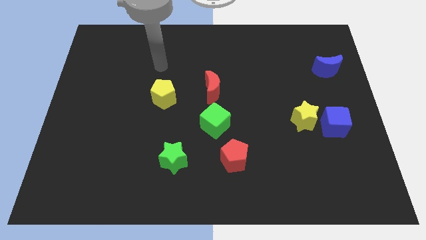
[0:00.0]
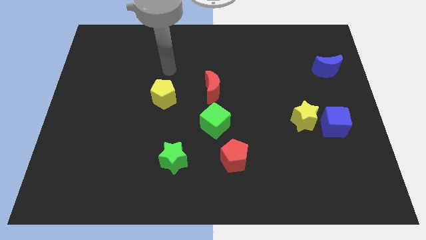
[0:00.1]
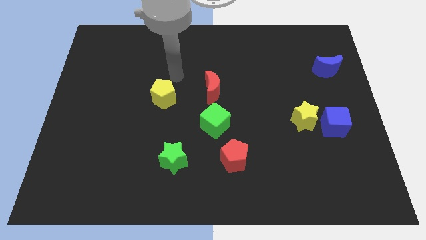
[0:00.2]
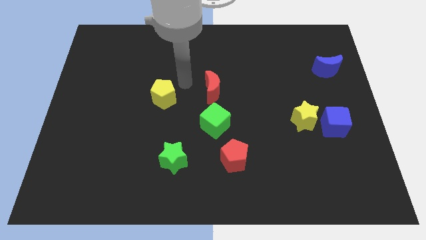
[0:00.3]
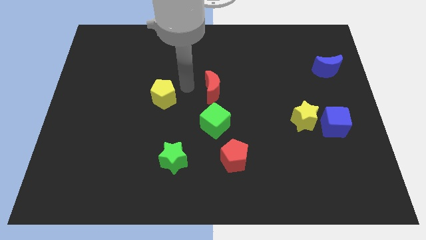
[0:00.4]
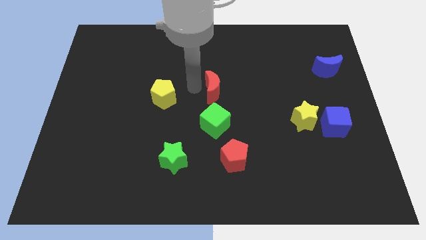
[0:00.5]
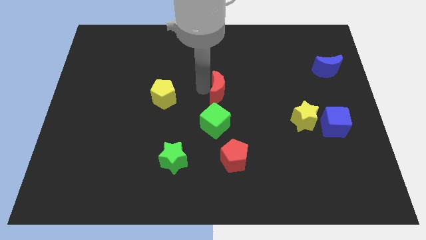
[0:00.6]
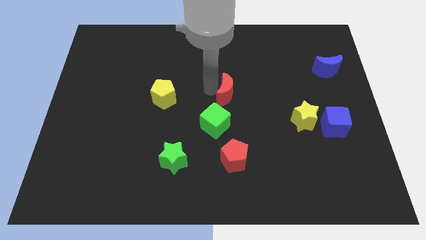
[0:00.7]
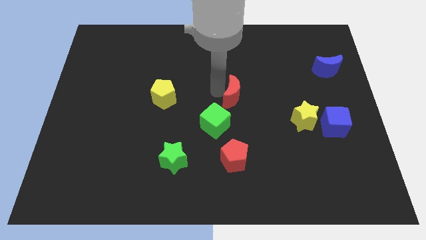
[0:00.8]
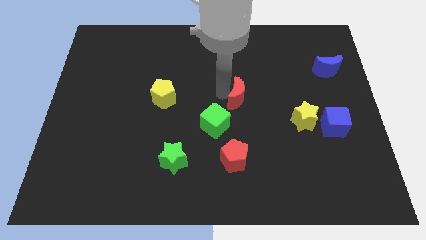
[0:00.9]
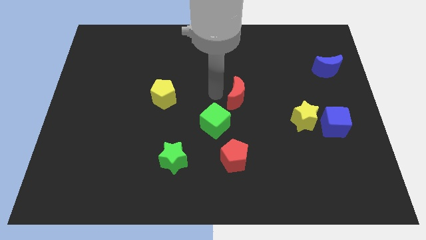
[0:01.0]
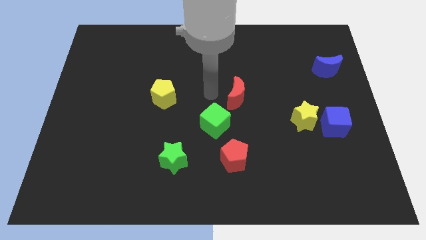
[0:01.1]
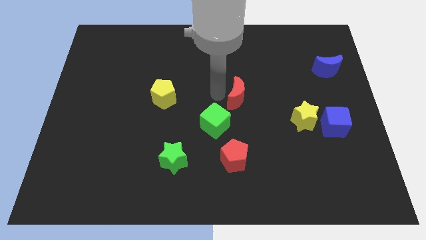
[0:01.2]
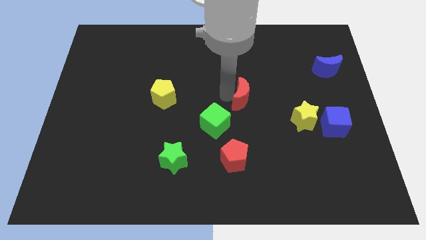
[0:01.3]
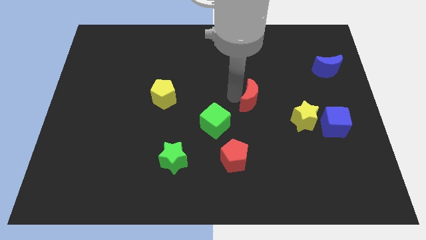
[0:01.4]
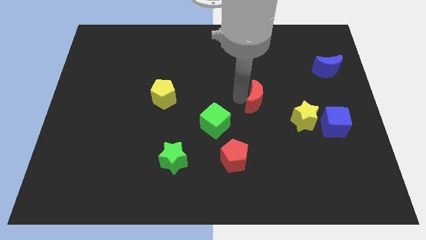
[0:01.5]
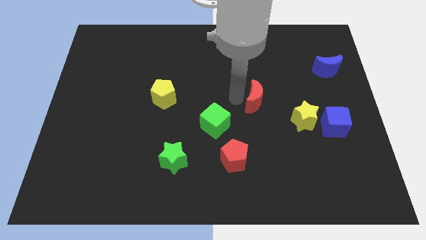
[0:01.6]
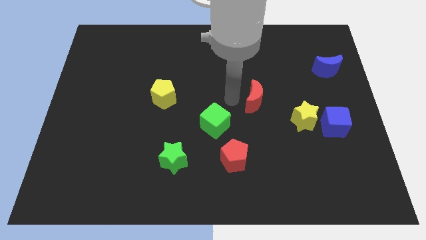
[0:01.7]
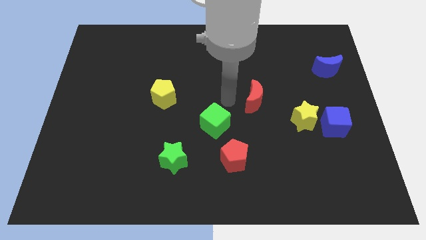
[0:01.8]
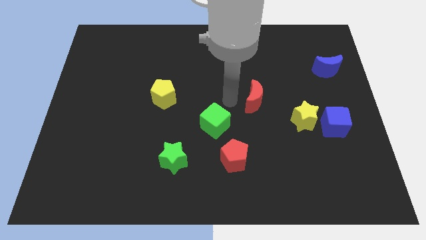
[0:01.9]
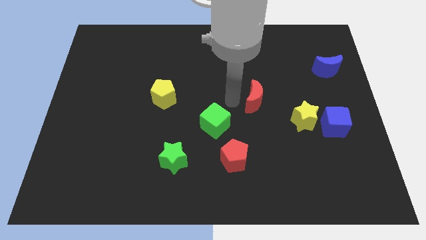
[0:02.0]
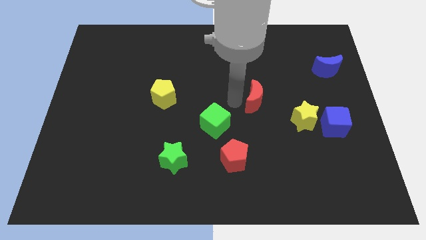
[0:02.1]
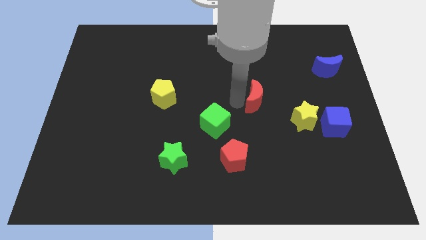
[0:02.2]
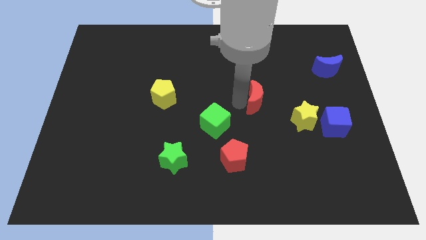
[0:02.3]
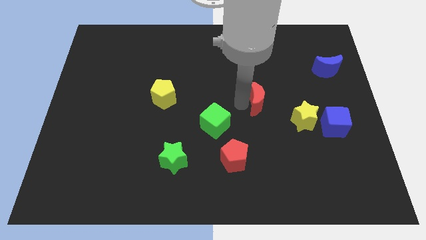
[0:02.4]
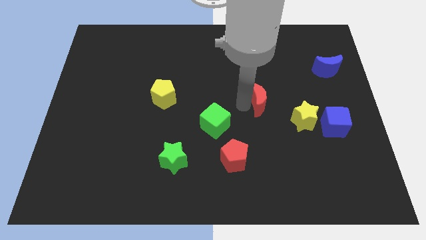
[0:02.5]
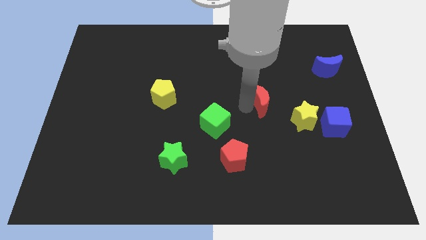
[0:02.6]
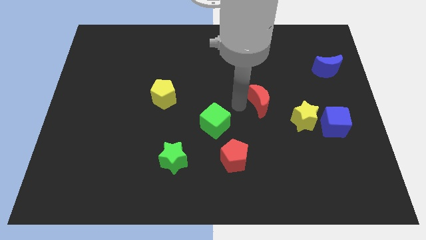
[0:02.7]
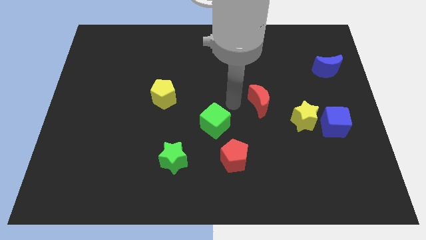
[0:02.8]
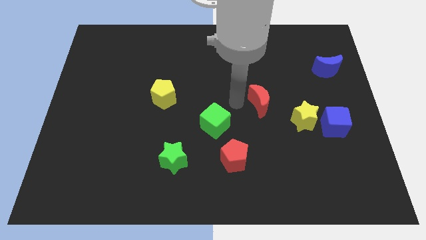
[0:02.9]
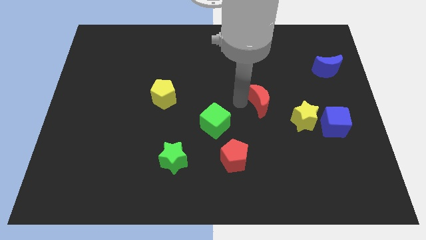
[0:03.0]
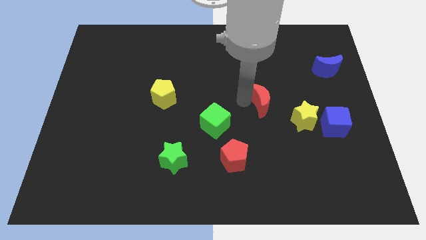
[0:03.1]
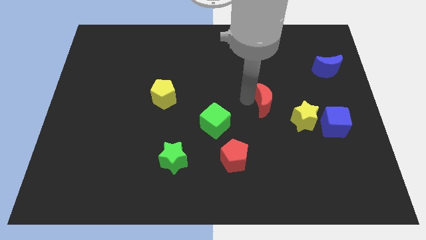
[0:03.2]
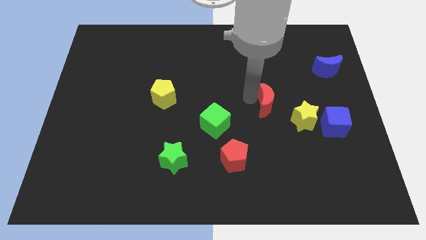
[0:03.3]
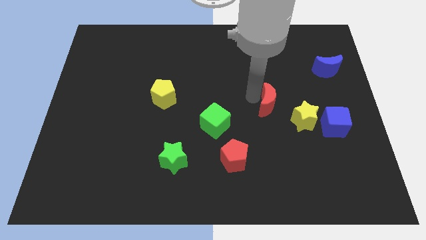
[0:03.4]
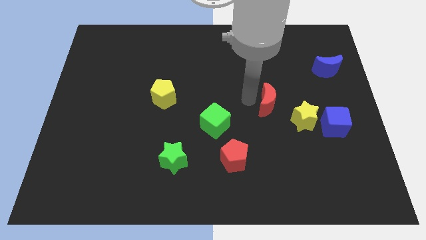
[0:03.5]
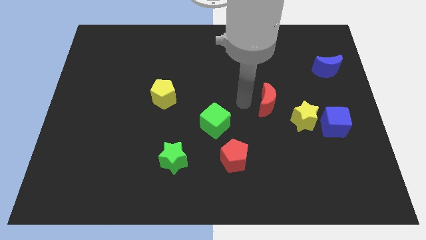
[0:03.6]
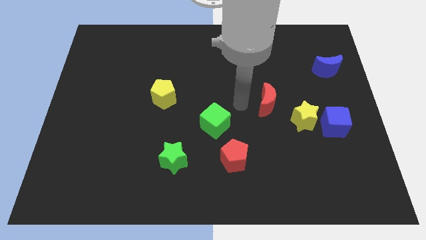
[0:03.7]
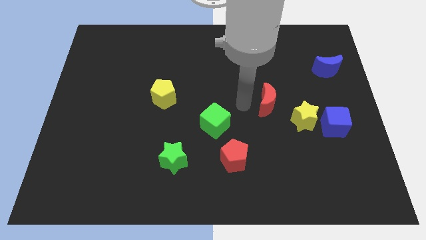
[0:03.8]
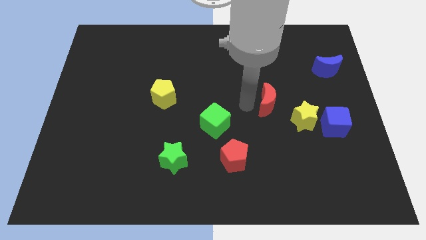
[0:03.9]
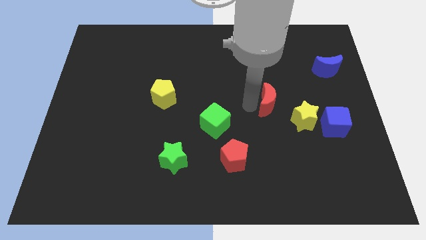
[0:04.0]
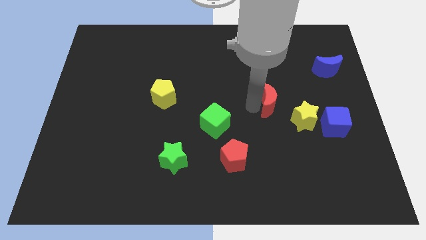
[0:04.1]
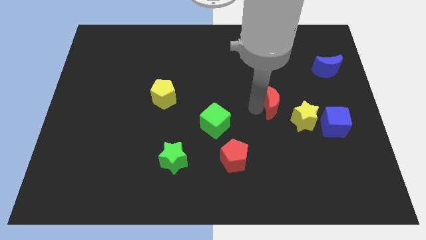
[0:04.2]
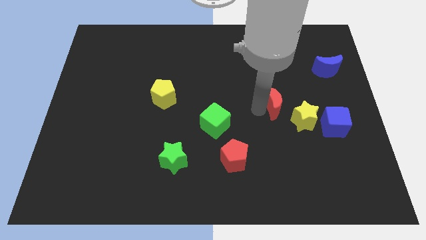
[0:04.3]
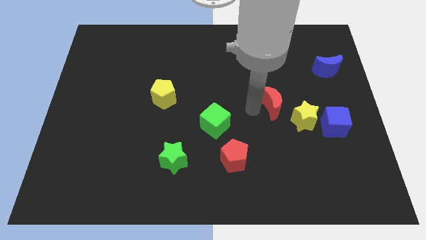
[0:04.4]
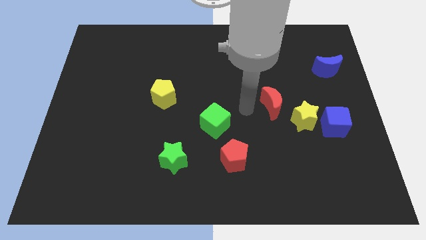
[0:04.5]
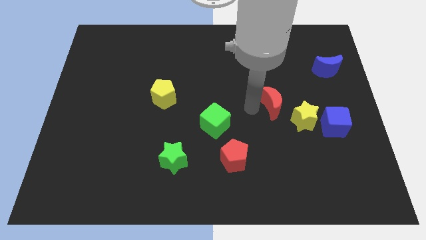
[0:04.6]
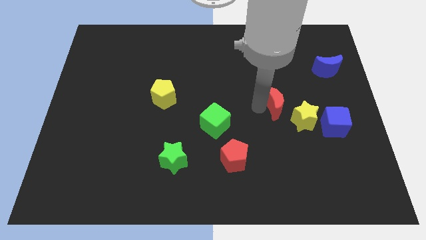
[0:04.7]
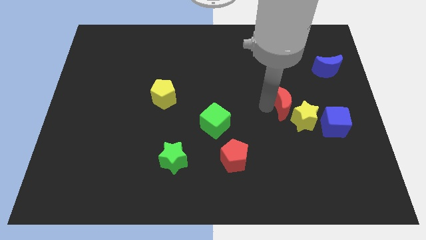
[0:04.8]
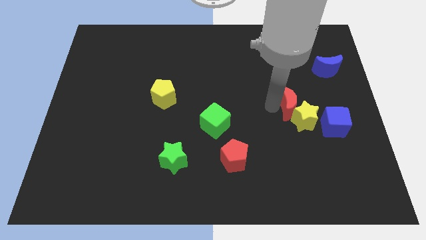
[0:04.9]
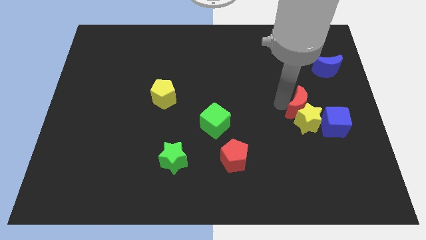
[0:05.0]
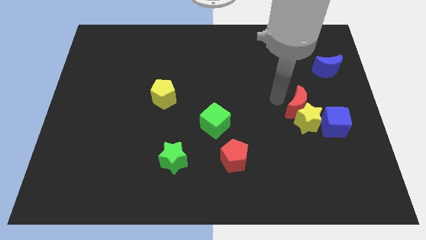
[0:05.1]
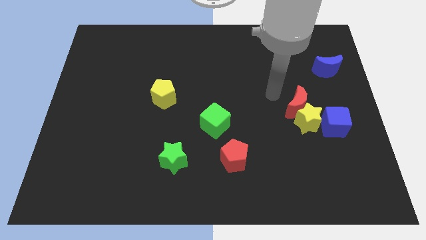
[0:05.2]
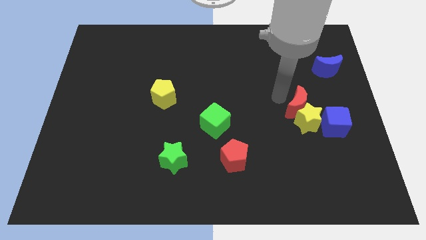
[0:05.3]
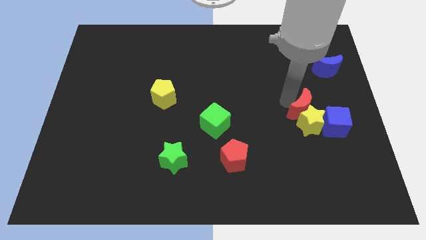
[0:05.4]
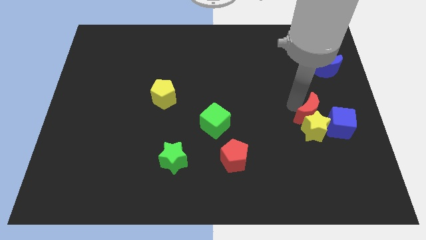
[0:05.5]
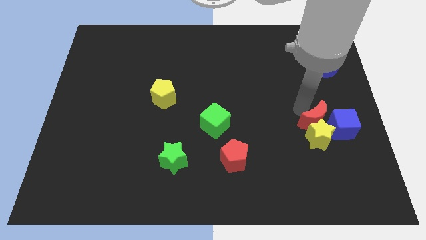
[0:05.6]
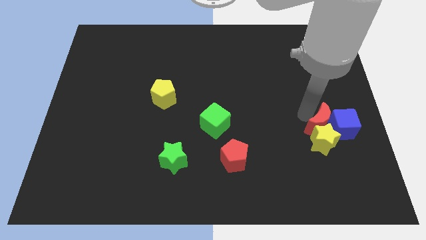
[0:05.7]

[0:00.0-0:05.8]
slide the red moon to the blue cube

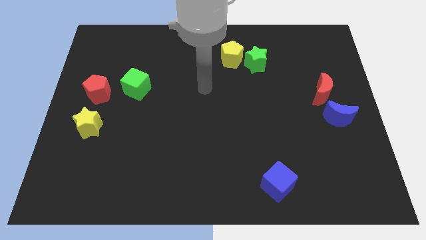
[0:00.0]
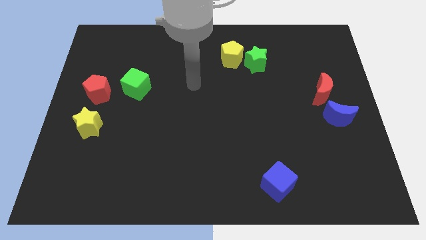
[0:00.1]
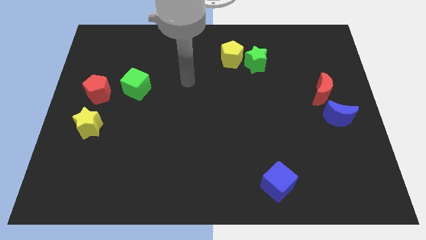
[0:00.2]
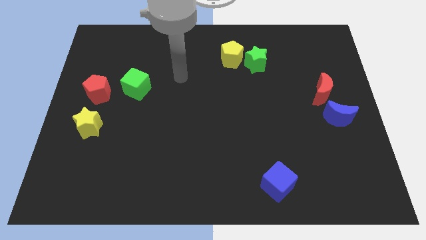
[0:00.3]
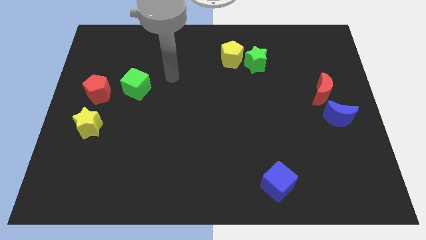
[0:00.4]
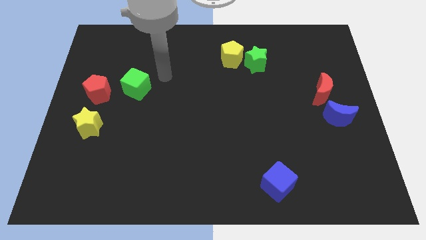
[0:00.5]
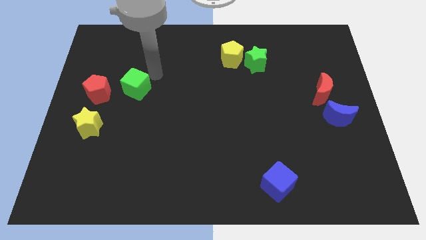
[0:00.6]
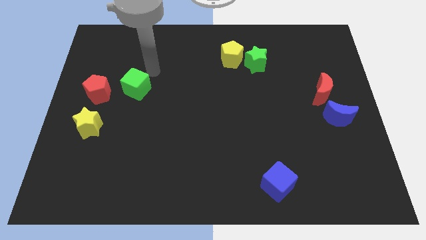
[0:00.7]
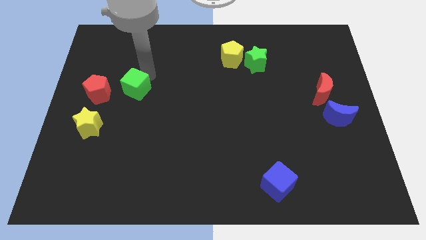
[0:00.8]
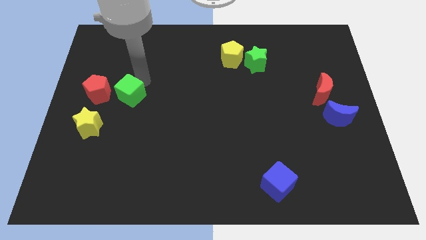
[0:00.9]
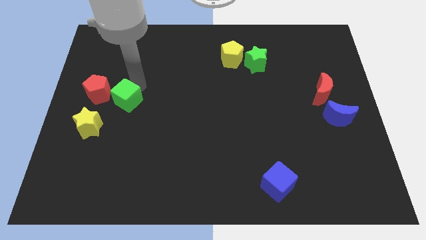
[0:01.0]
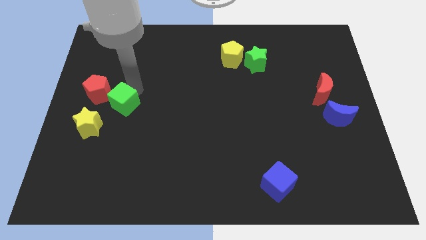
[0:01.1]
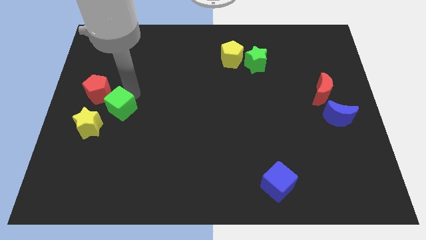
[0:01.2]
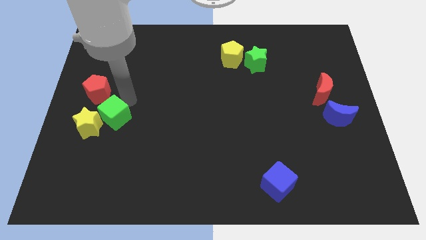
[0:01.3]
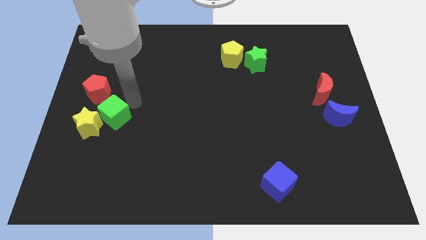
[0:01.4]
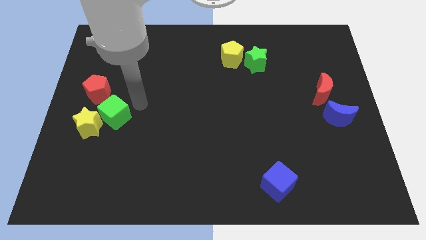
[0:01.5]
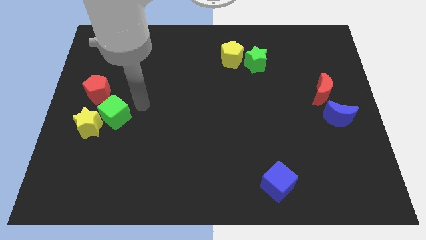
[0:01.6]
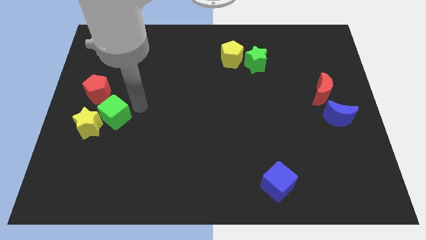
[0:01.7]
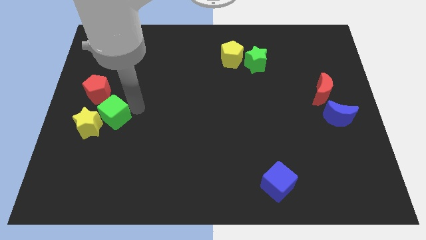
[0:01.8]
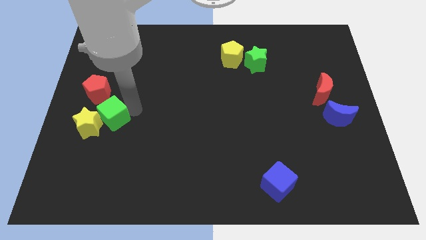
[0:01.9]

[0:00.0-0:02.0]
slide the green cube towards the yellow star
